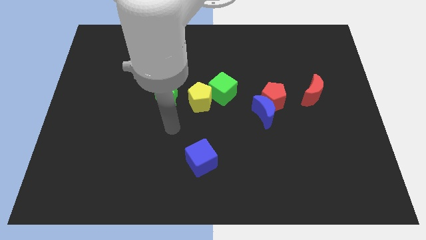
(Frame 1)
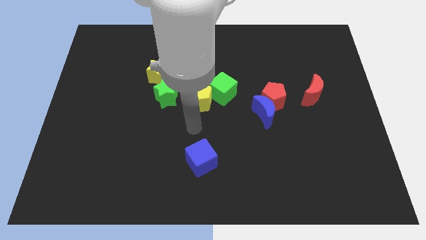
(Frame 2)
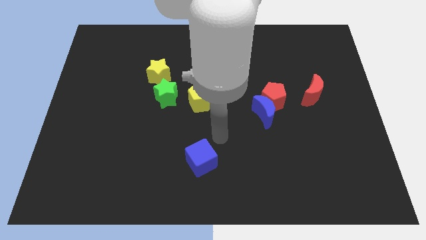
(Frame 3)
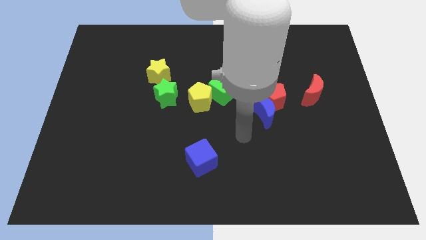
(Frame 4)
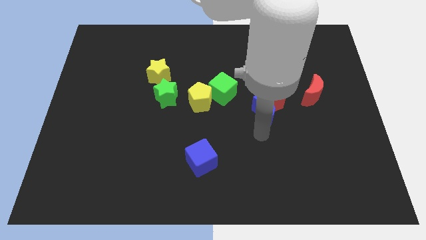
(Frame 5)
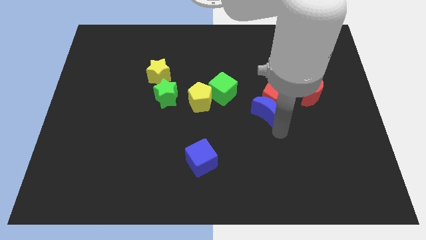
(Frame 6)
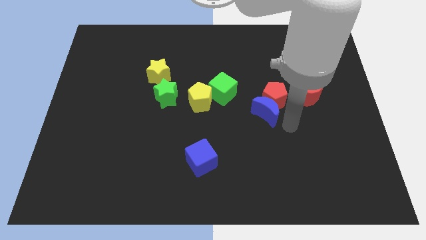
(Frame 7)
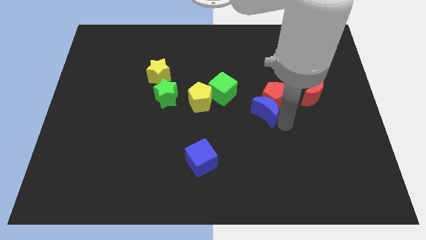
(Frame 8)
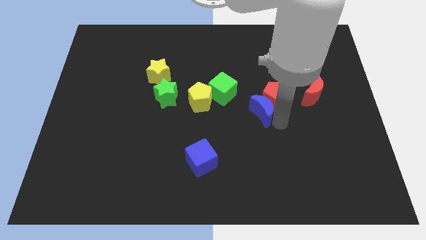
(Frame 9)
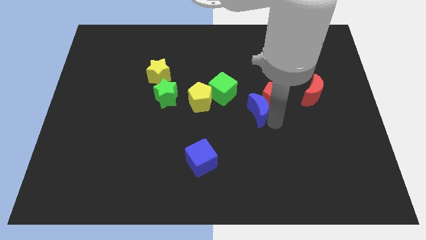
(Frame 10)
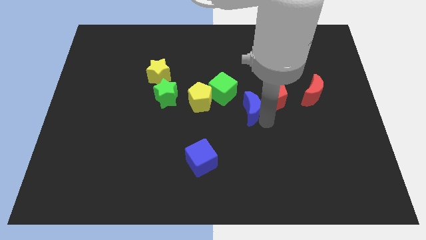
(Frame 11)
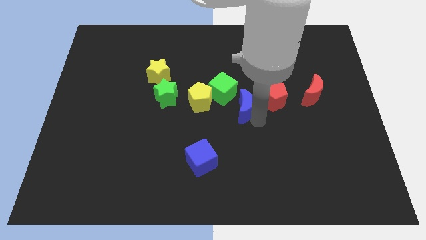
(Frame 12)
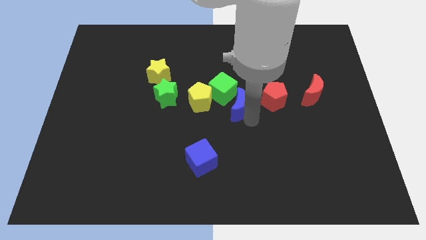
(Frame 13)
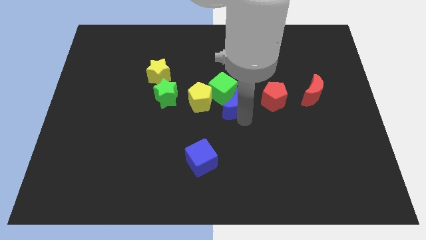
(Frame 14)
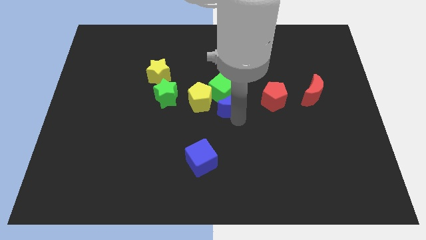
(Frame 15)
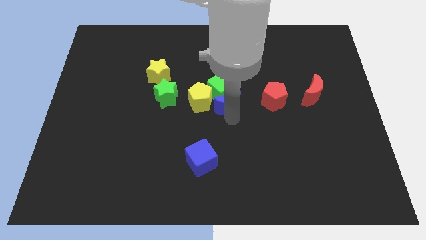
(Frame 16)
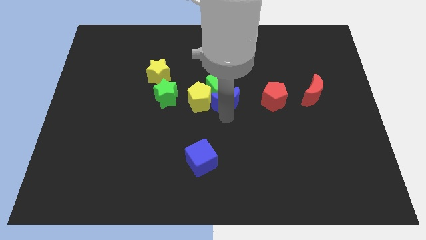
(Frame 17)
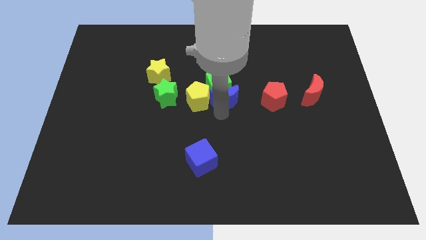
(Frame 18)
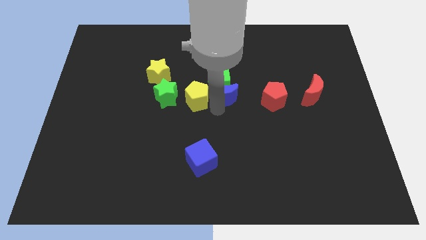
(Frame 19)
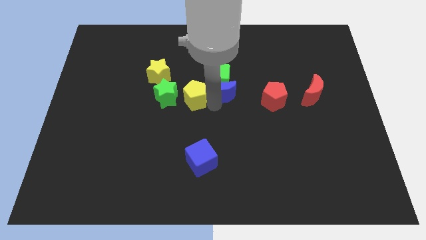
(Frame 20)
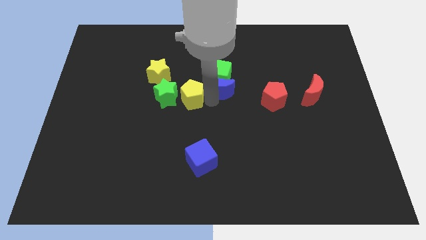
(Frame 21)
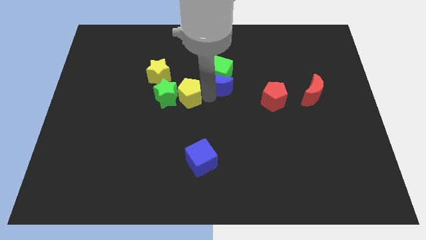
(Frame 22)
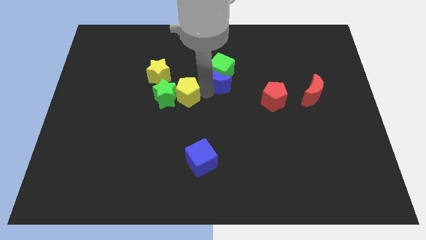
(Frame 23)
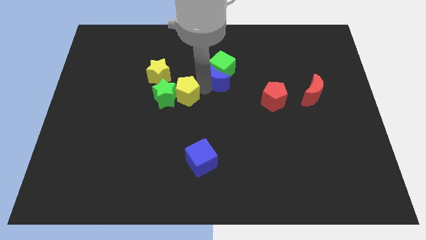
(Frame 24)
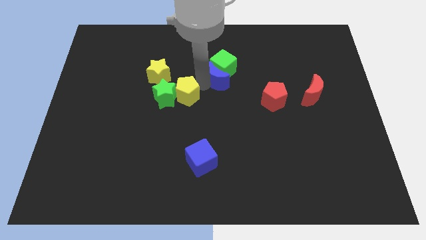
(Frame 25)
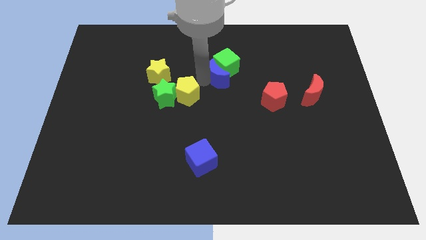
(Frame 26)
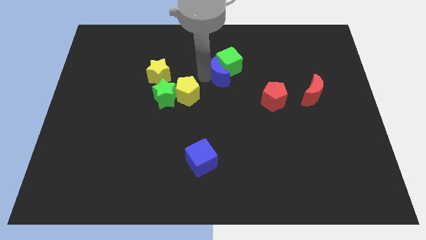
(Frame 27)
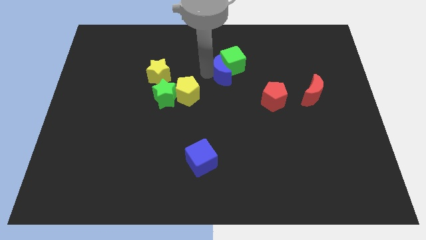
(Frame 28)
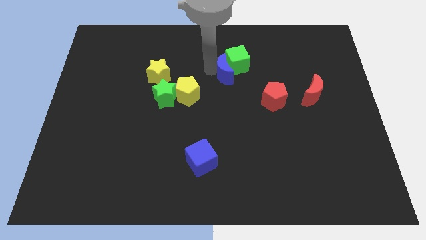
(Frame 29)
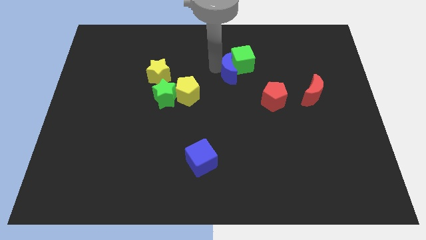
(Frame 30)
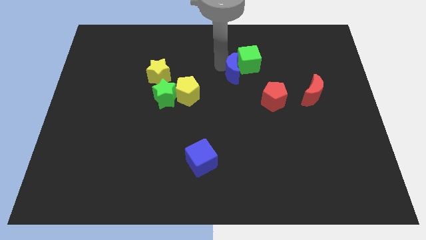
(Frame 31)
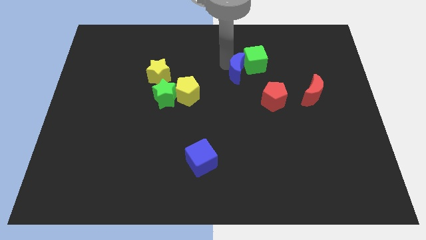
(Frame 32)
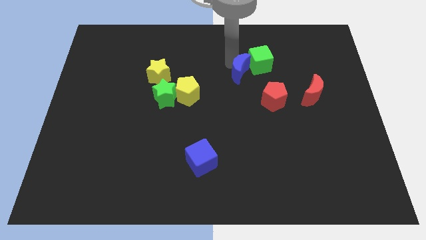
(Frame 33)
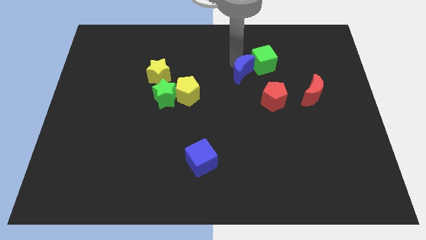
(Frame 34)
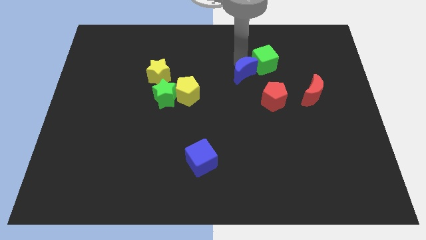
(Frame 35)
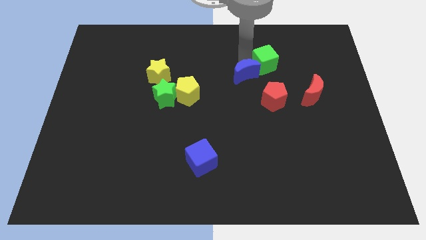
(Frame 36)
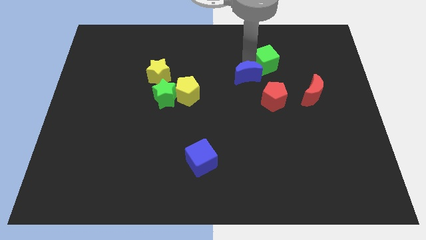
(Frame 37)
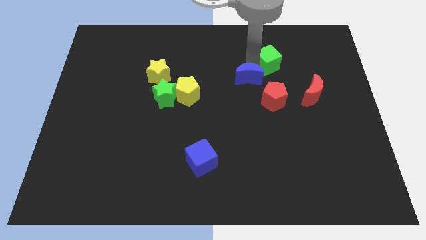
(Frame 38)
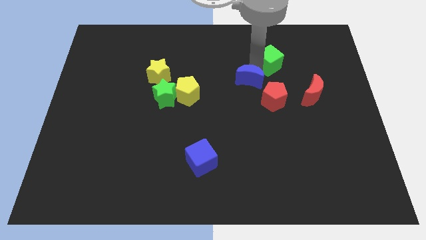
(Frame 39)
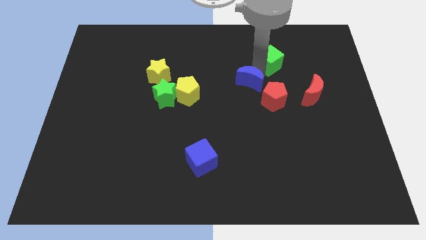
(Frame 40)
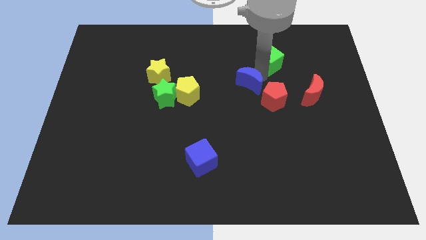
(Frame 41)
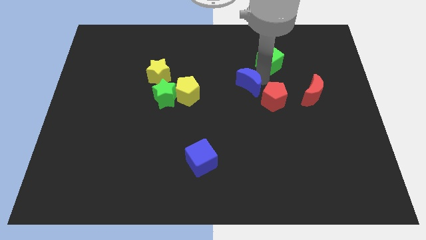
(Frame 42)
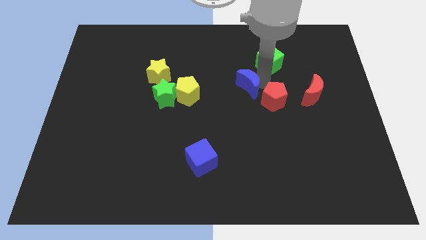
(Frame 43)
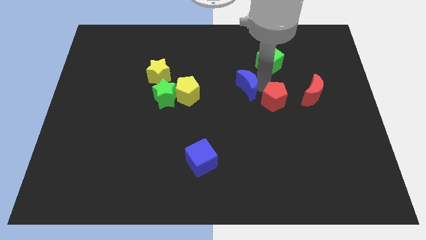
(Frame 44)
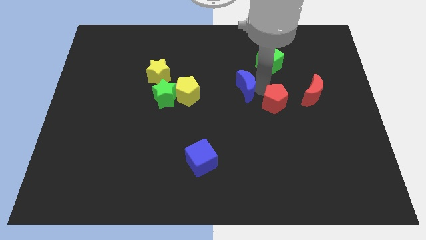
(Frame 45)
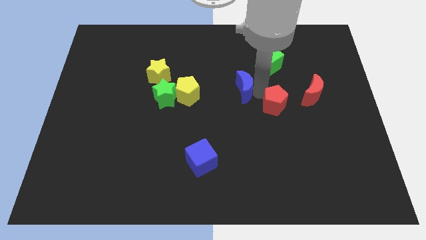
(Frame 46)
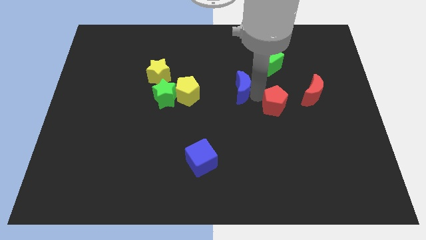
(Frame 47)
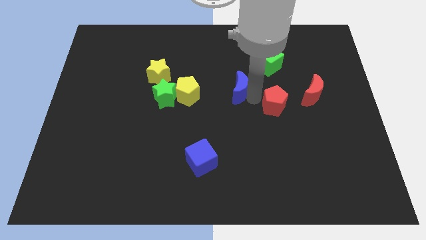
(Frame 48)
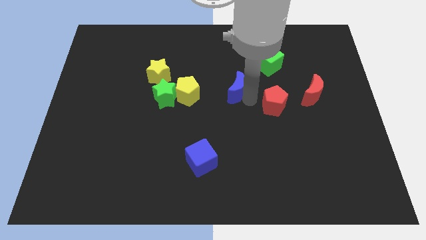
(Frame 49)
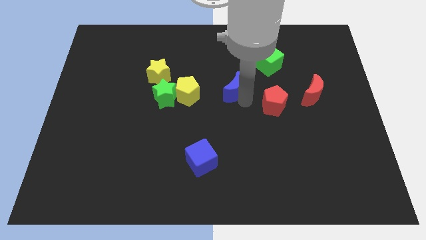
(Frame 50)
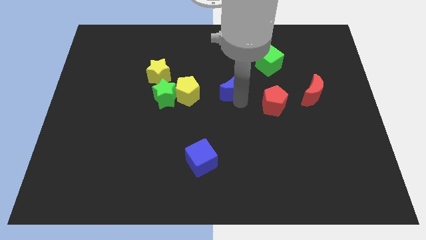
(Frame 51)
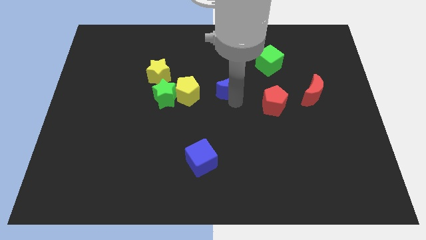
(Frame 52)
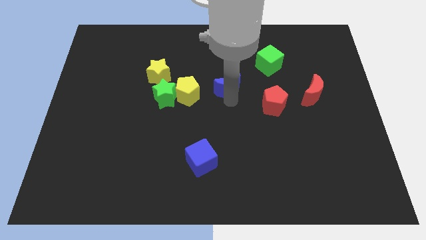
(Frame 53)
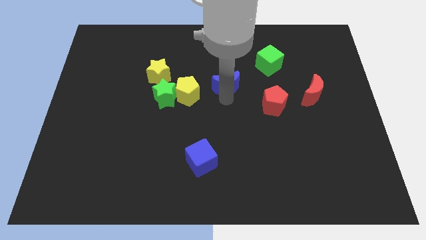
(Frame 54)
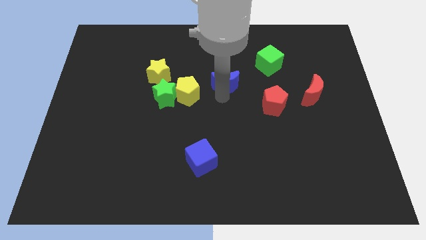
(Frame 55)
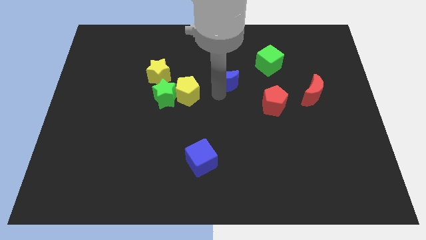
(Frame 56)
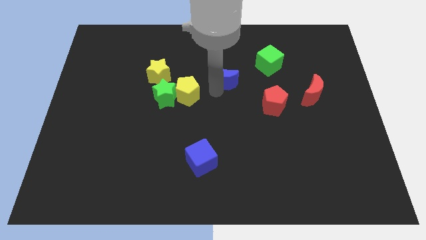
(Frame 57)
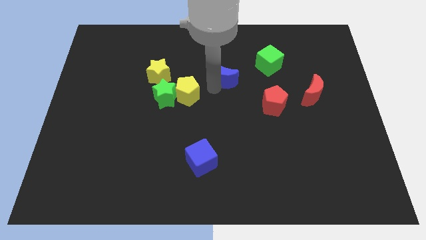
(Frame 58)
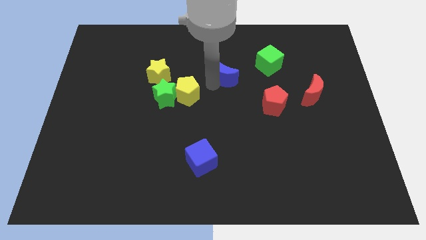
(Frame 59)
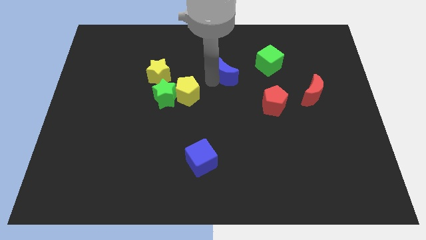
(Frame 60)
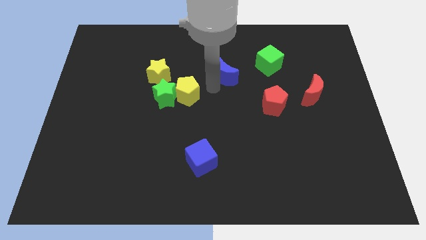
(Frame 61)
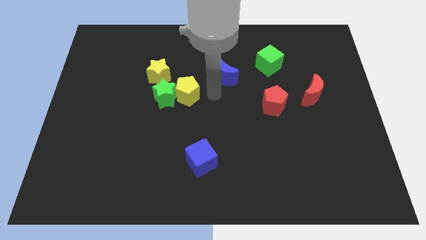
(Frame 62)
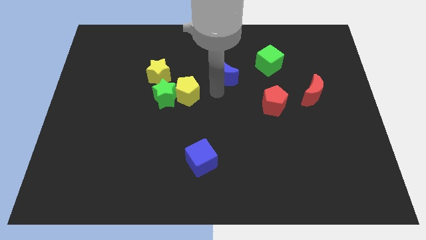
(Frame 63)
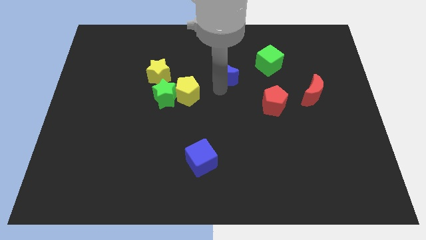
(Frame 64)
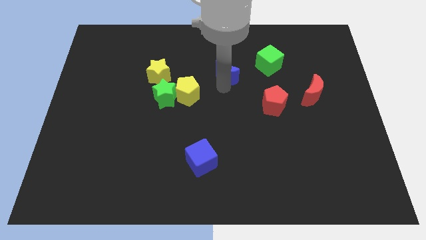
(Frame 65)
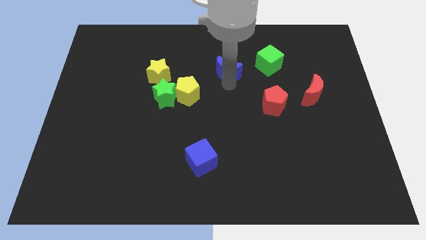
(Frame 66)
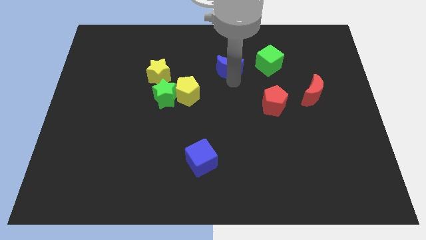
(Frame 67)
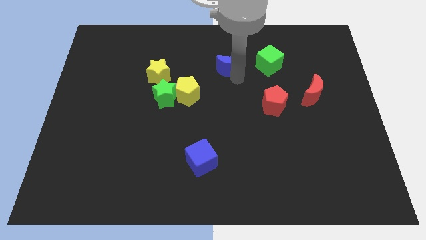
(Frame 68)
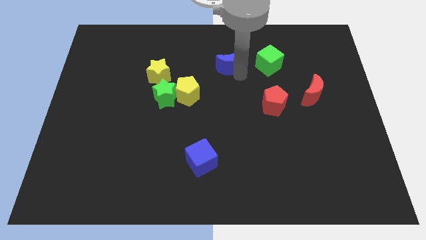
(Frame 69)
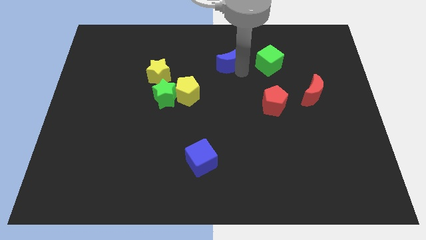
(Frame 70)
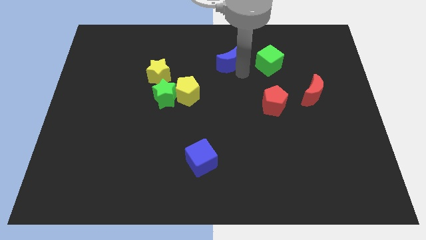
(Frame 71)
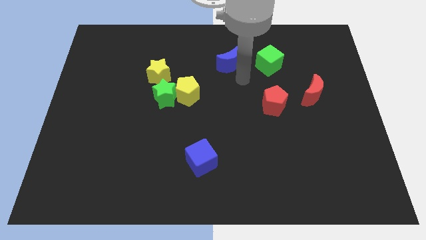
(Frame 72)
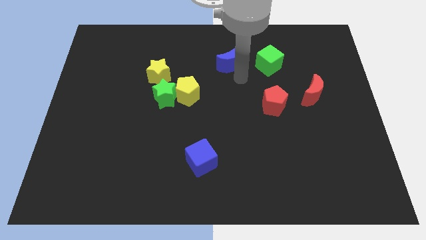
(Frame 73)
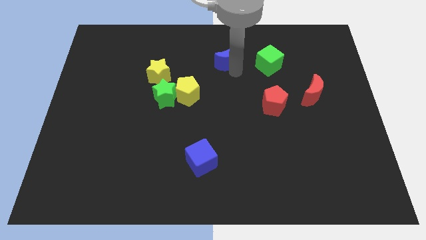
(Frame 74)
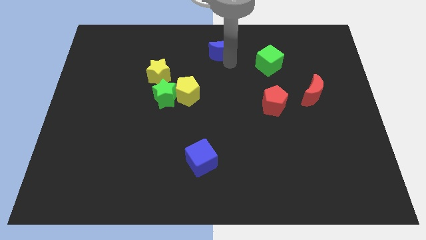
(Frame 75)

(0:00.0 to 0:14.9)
move the blue moon to the top side
